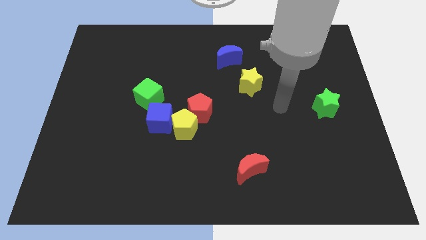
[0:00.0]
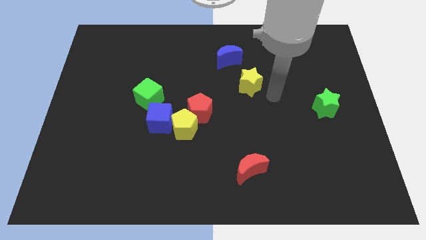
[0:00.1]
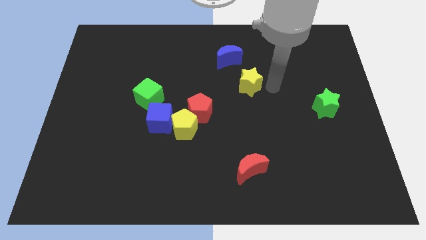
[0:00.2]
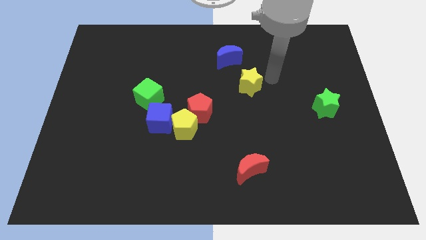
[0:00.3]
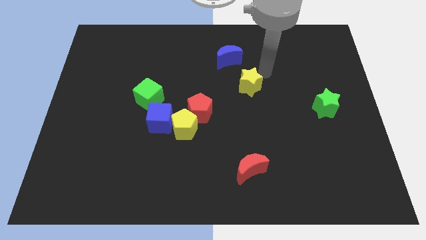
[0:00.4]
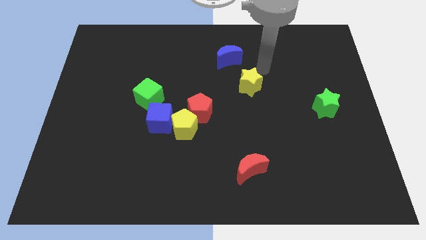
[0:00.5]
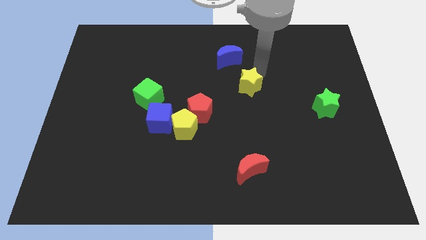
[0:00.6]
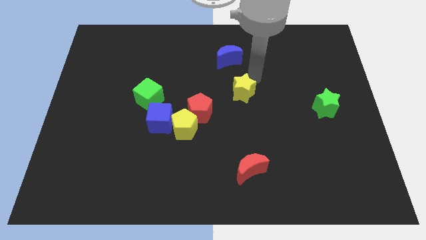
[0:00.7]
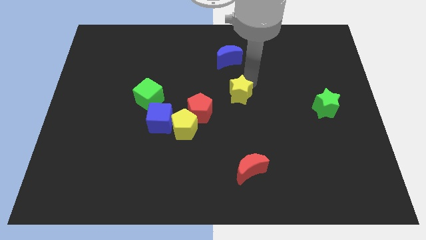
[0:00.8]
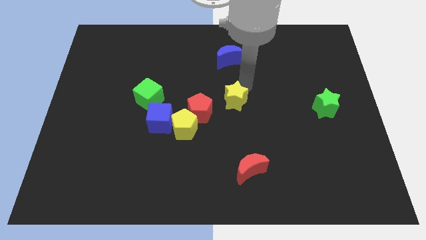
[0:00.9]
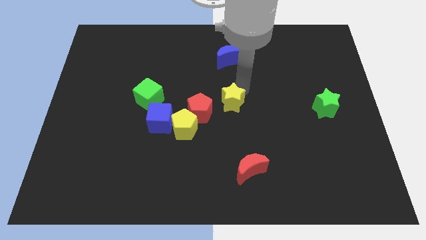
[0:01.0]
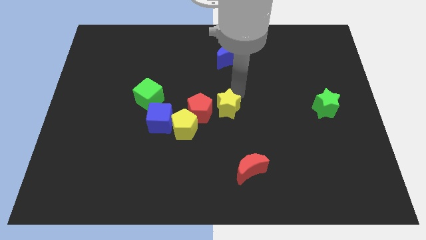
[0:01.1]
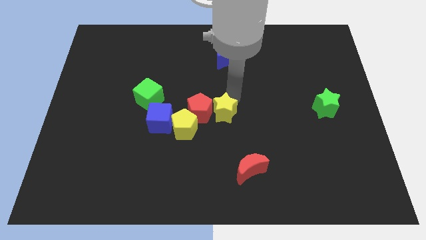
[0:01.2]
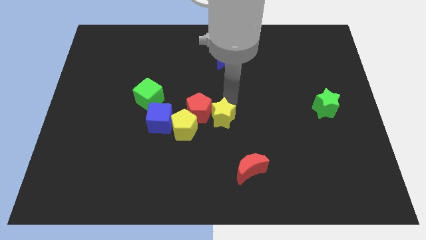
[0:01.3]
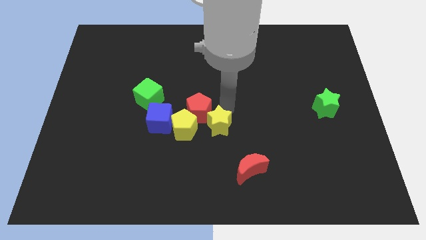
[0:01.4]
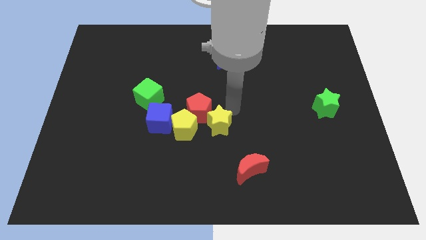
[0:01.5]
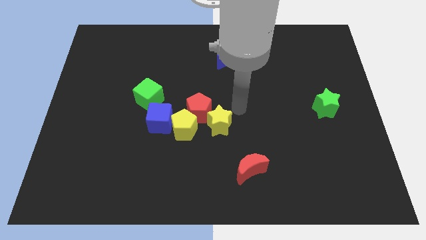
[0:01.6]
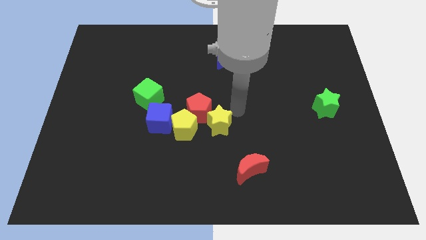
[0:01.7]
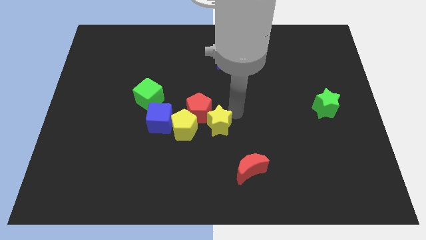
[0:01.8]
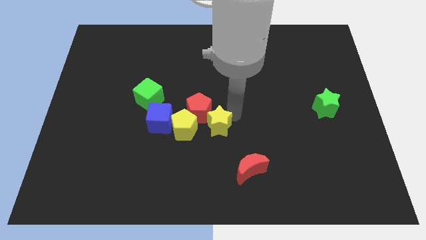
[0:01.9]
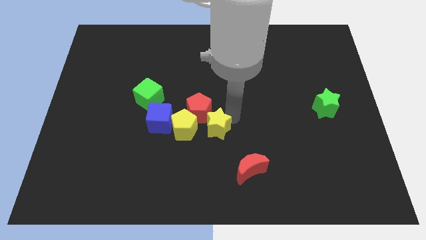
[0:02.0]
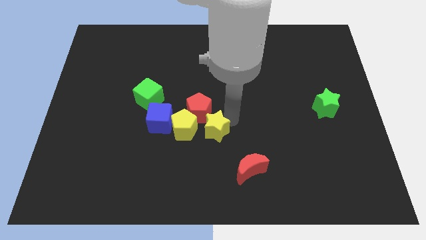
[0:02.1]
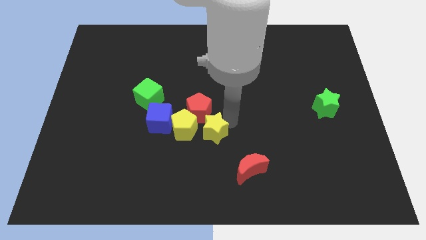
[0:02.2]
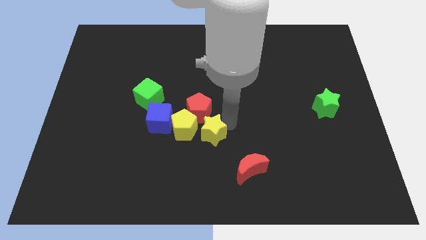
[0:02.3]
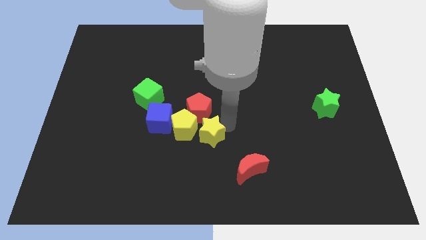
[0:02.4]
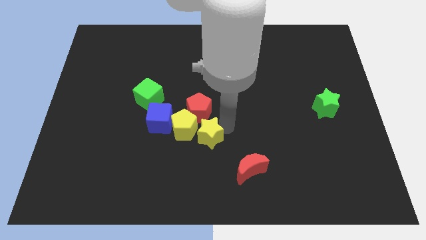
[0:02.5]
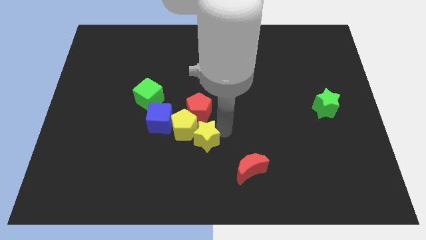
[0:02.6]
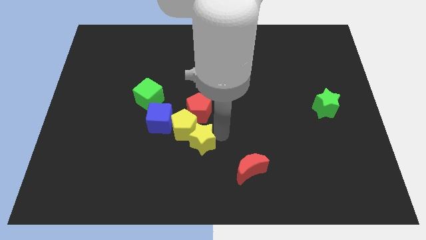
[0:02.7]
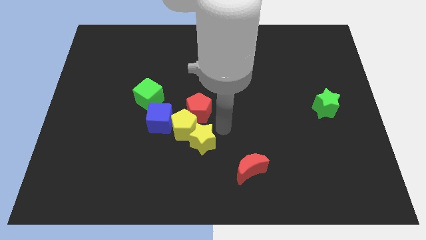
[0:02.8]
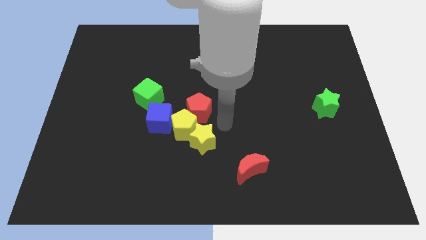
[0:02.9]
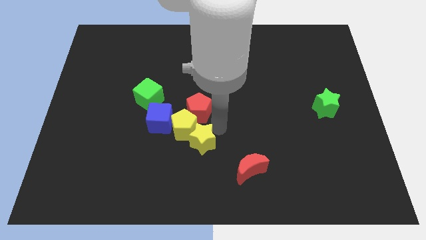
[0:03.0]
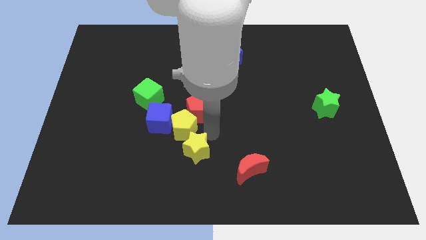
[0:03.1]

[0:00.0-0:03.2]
slide the yellow star down and then left

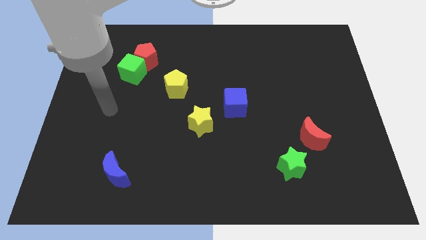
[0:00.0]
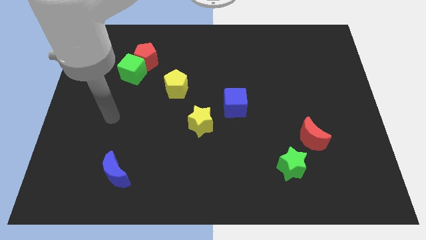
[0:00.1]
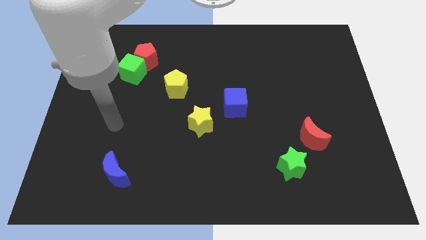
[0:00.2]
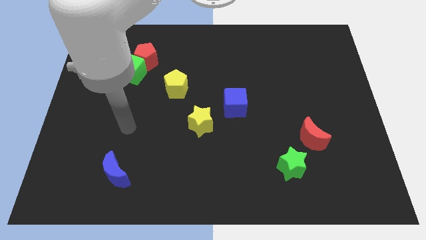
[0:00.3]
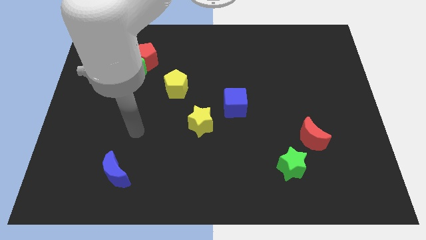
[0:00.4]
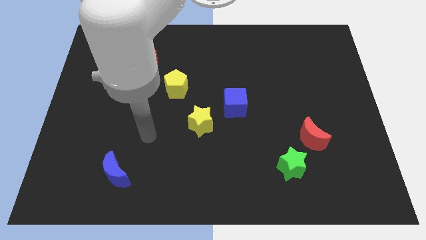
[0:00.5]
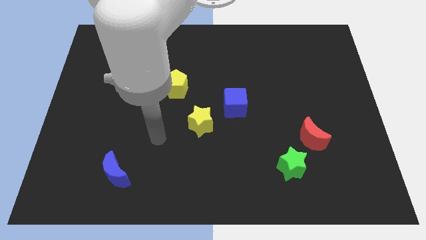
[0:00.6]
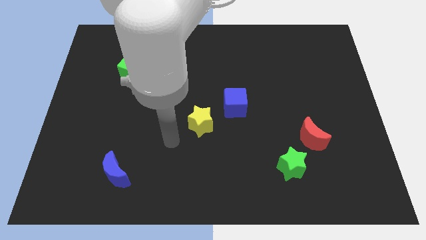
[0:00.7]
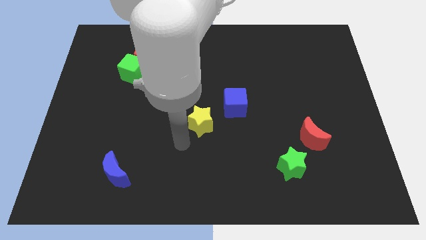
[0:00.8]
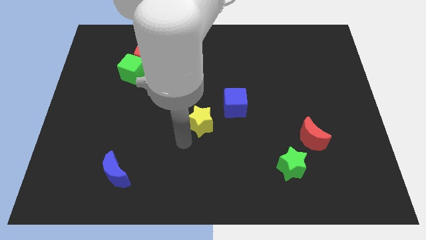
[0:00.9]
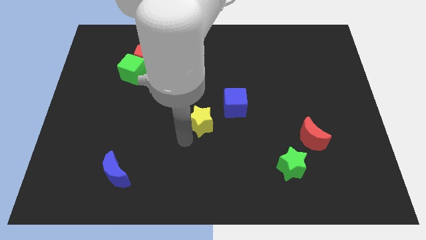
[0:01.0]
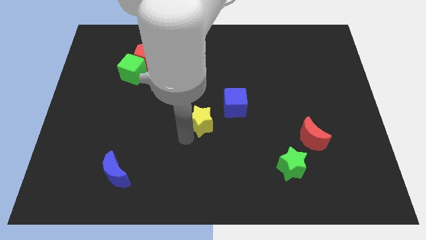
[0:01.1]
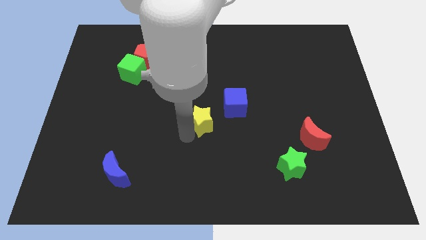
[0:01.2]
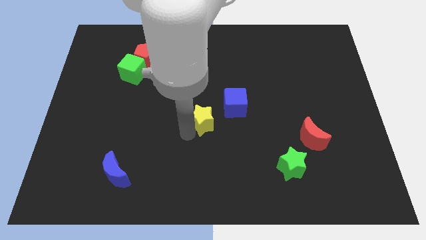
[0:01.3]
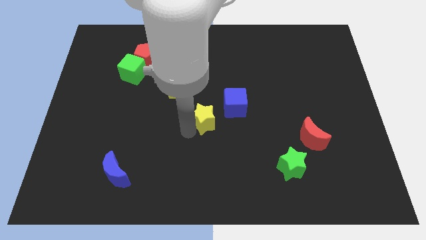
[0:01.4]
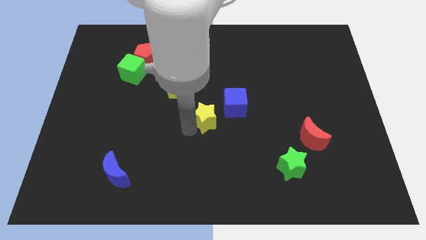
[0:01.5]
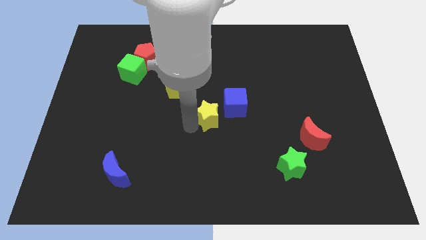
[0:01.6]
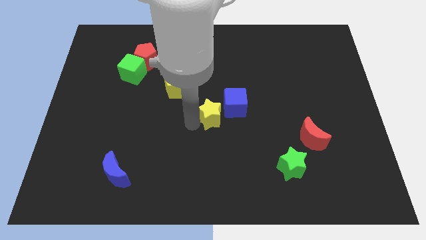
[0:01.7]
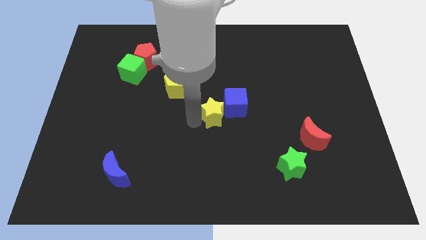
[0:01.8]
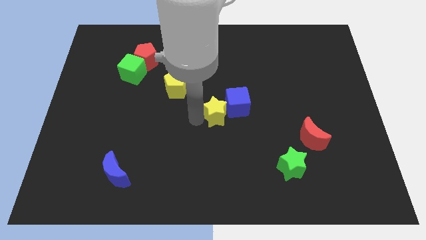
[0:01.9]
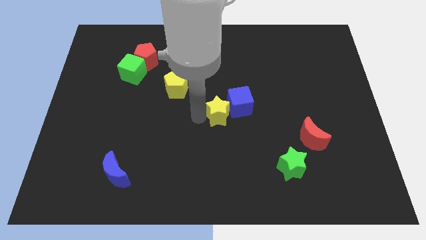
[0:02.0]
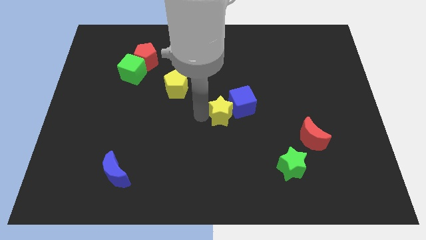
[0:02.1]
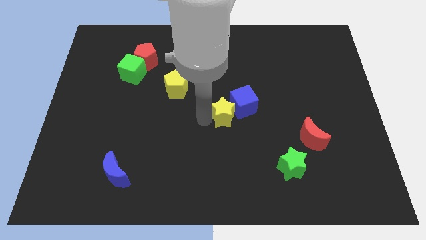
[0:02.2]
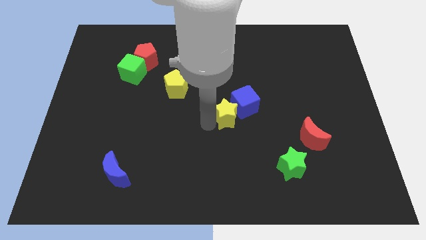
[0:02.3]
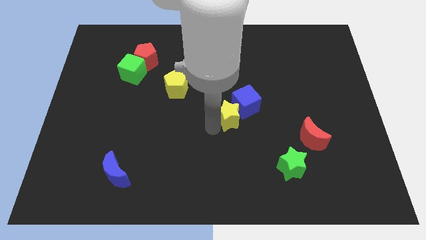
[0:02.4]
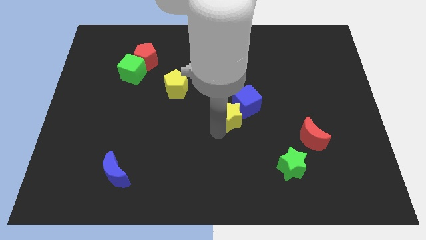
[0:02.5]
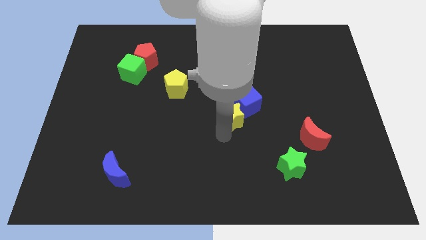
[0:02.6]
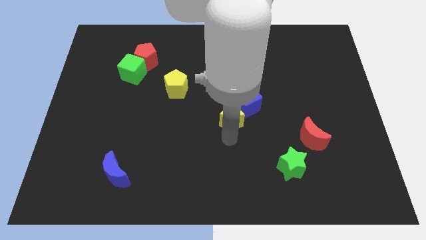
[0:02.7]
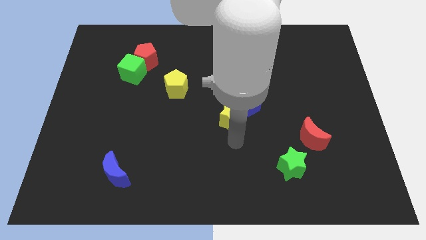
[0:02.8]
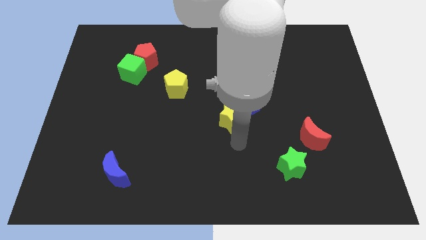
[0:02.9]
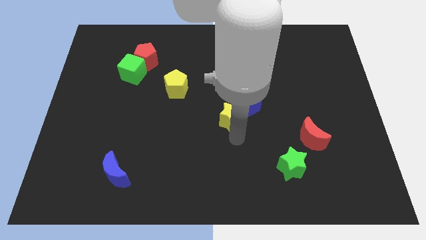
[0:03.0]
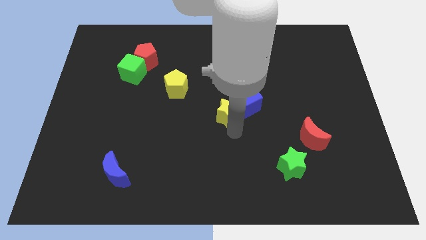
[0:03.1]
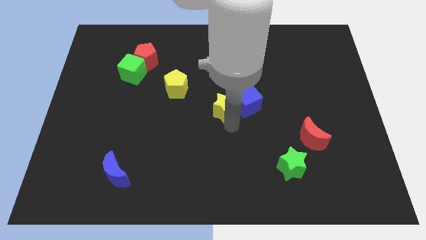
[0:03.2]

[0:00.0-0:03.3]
slightly move the yellow star up and then to the right

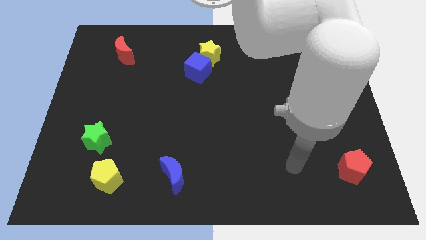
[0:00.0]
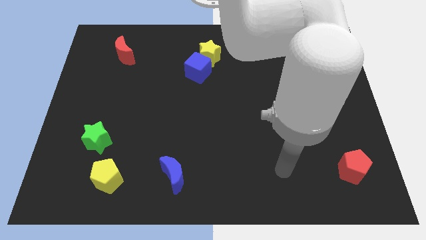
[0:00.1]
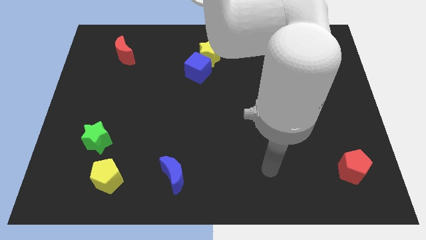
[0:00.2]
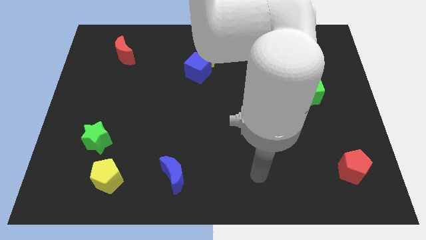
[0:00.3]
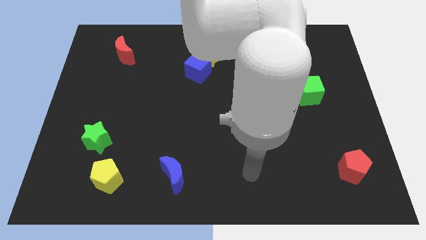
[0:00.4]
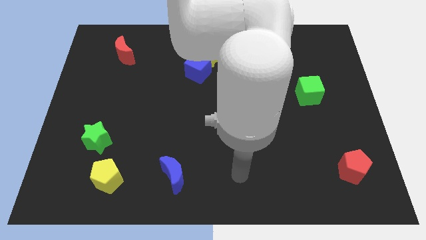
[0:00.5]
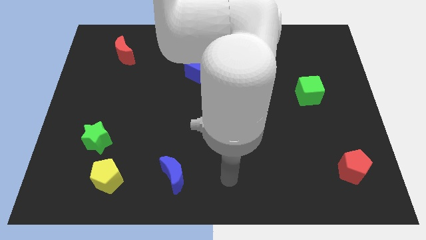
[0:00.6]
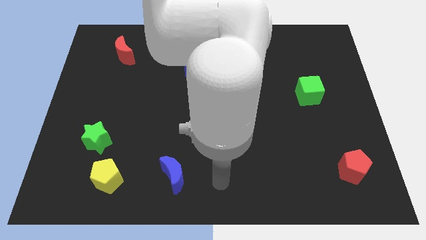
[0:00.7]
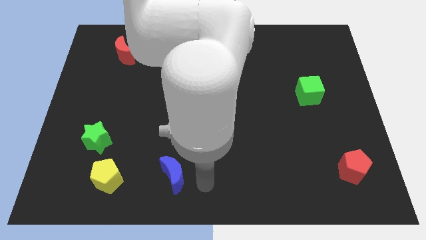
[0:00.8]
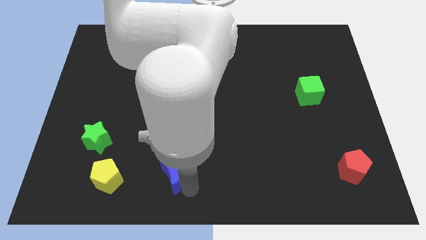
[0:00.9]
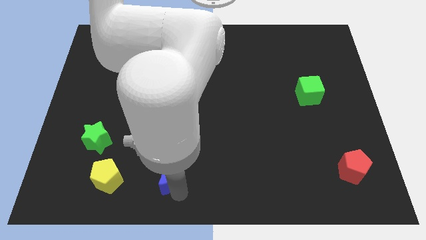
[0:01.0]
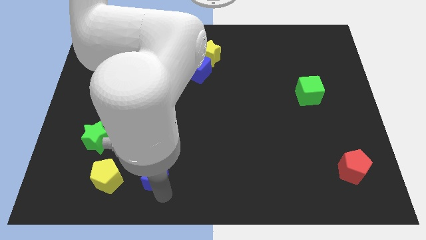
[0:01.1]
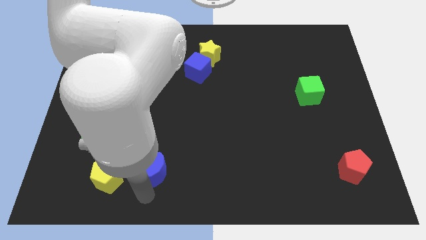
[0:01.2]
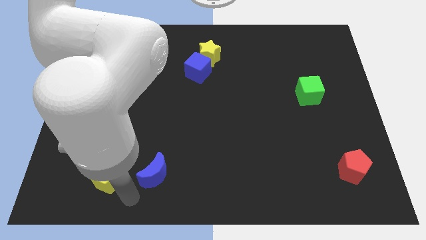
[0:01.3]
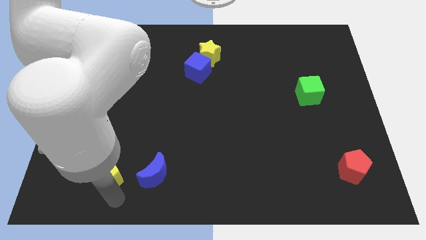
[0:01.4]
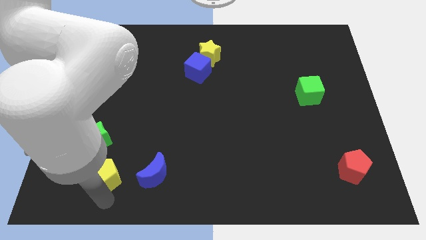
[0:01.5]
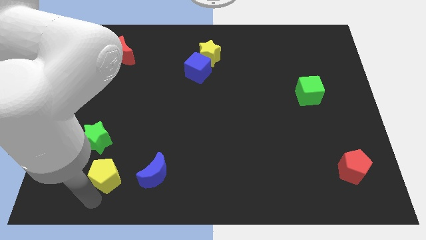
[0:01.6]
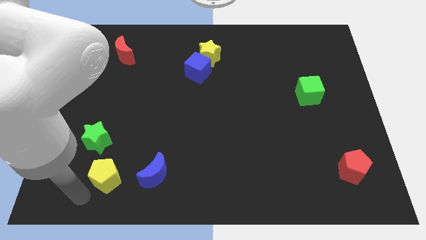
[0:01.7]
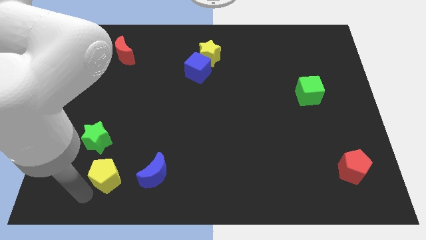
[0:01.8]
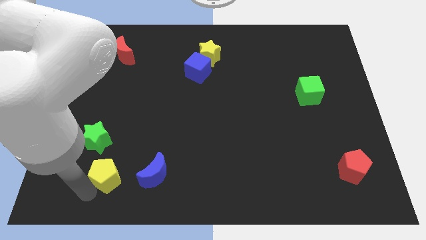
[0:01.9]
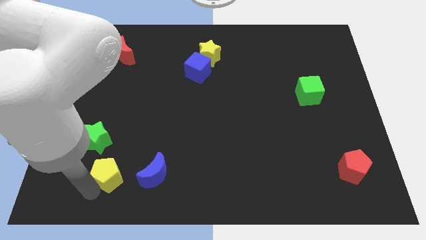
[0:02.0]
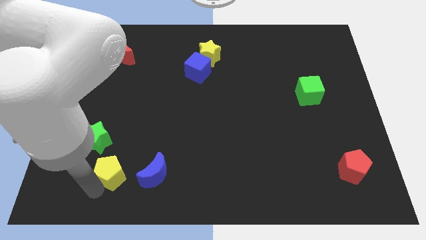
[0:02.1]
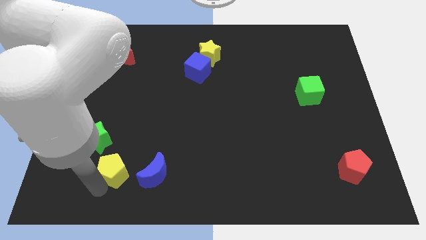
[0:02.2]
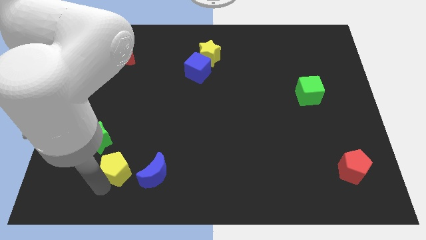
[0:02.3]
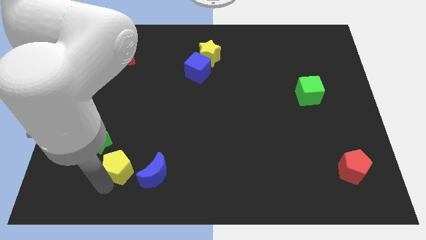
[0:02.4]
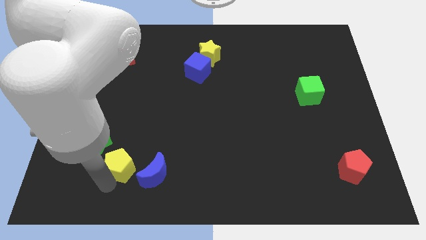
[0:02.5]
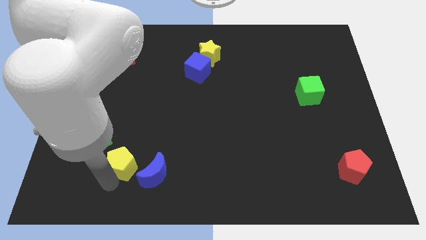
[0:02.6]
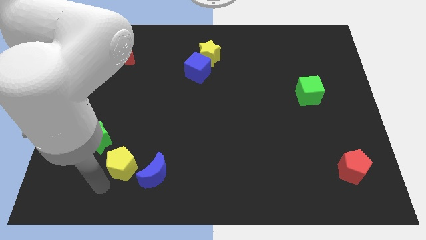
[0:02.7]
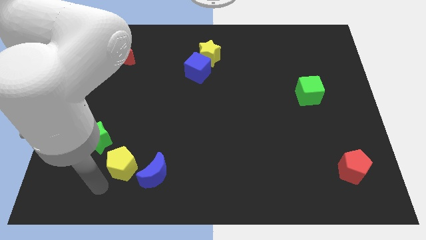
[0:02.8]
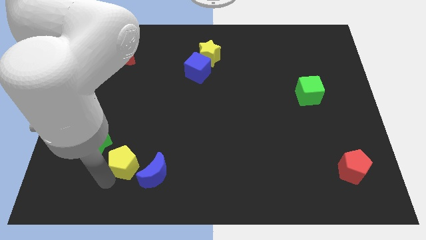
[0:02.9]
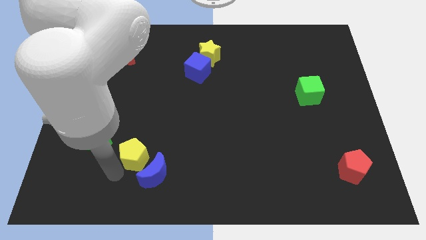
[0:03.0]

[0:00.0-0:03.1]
push the yellow pentagon slightly diagonally upwards and to the right
